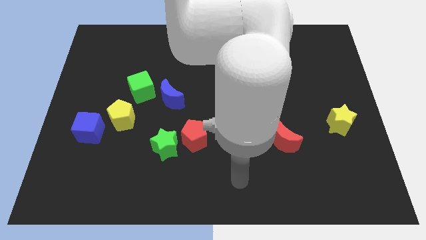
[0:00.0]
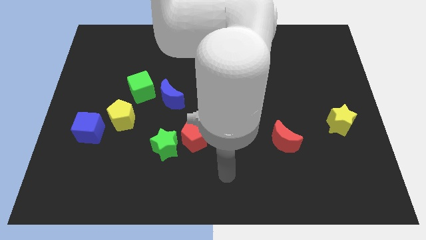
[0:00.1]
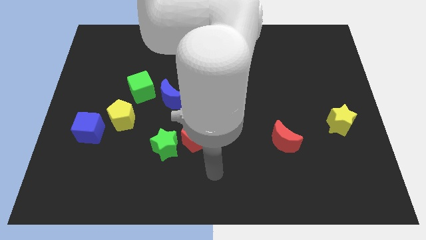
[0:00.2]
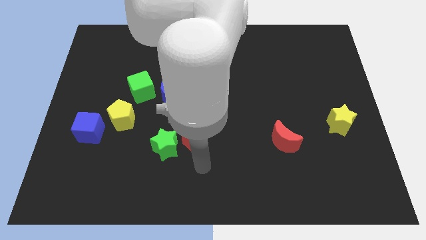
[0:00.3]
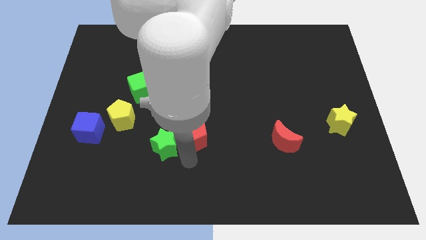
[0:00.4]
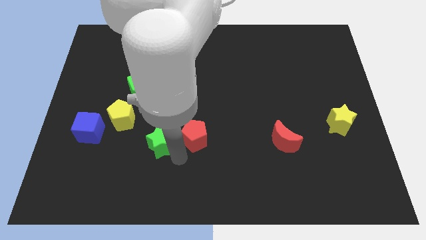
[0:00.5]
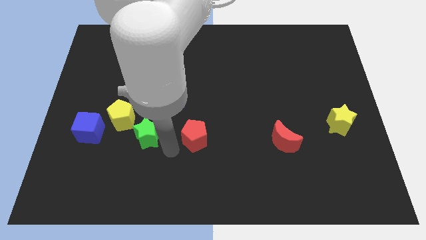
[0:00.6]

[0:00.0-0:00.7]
separate the red pentagon from the green star

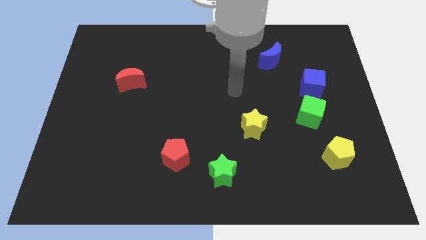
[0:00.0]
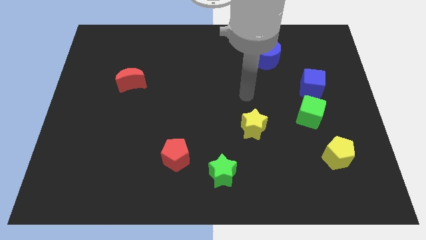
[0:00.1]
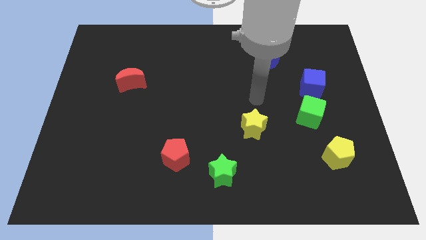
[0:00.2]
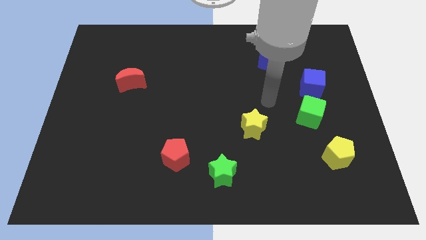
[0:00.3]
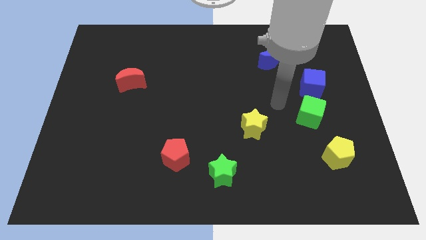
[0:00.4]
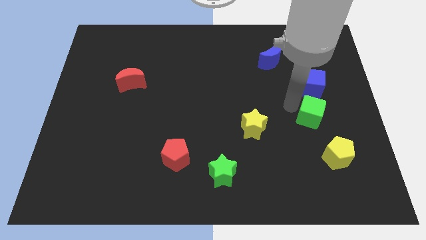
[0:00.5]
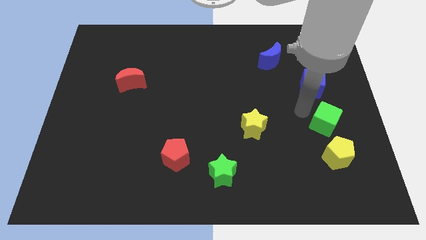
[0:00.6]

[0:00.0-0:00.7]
pull the blue cube apart from the green cube

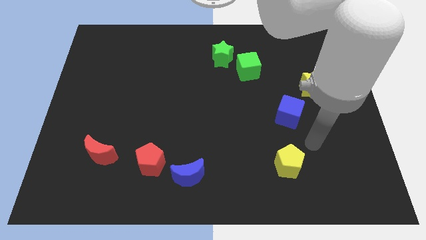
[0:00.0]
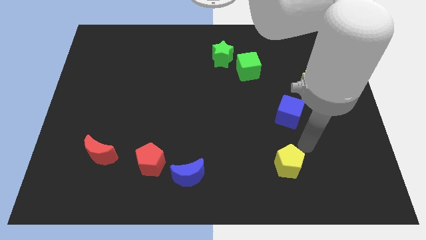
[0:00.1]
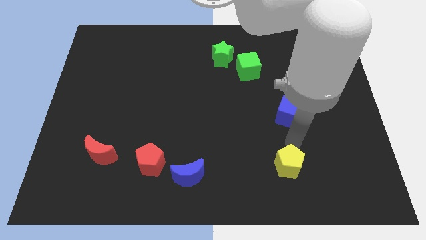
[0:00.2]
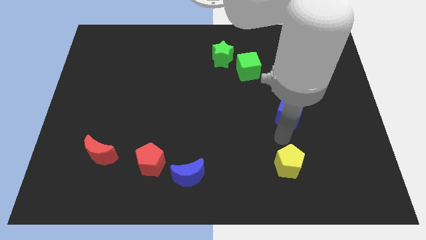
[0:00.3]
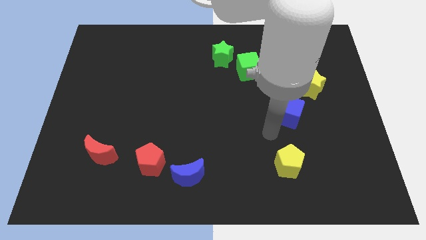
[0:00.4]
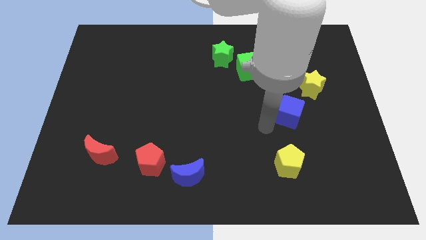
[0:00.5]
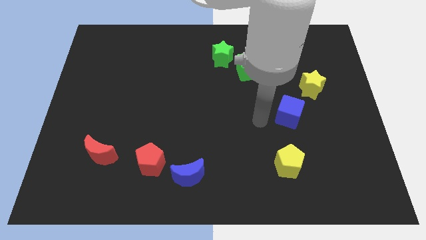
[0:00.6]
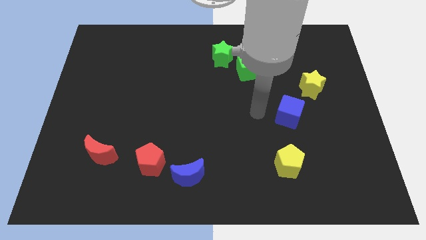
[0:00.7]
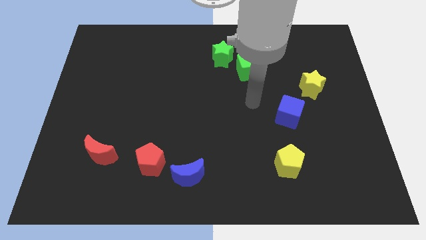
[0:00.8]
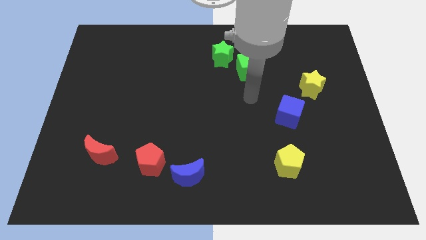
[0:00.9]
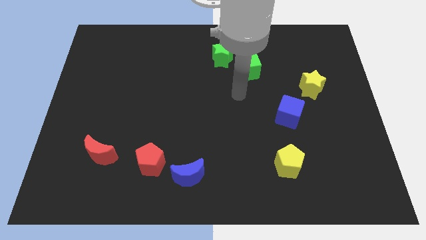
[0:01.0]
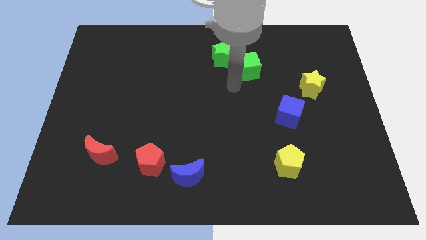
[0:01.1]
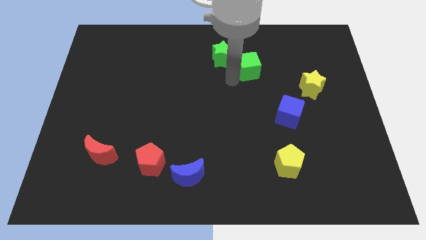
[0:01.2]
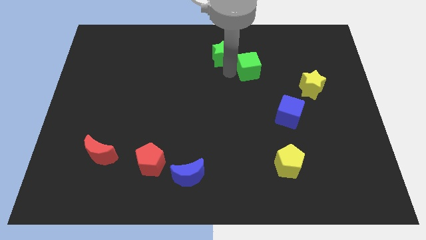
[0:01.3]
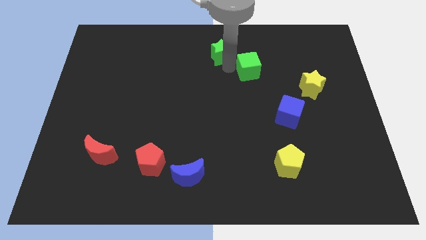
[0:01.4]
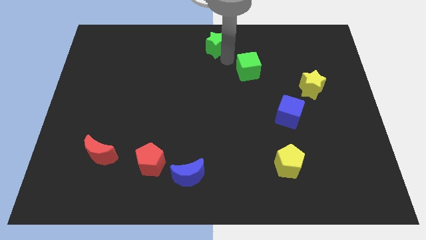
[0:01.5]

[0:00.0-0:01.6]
pull the green cube apart from the green star

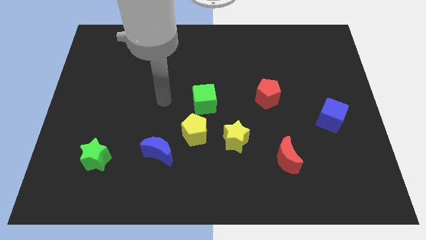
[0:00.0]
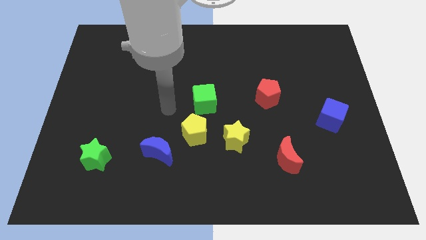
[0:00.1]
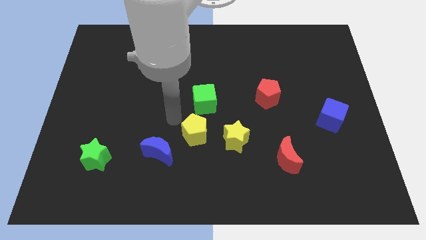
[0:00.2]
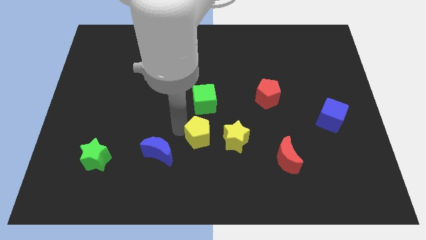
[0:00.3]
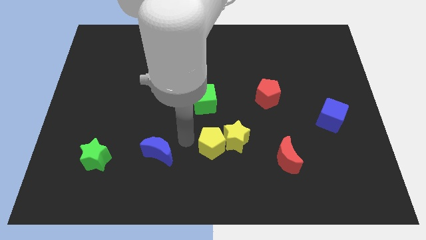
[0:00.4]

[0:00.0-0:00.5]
pull the blue moon apart from the yellow pentagon

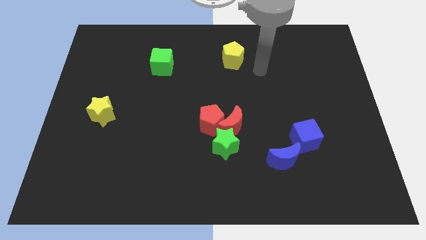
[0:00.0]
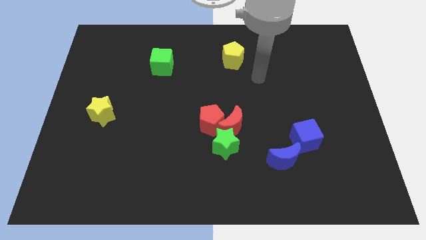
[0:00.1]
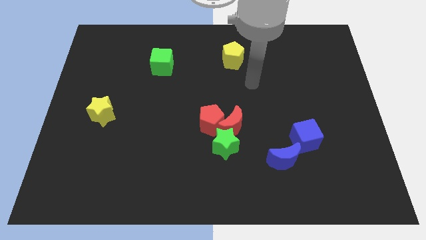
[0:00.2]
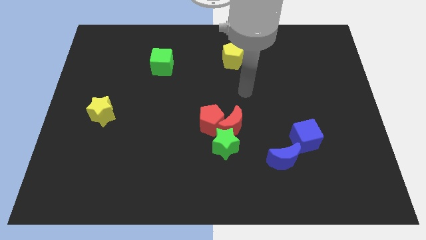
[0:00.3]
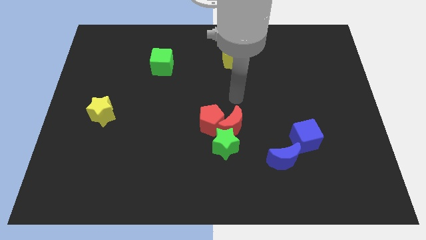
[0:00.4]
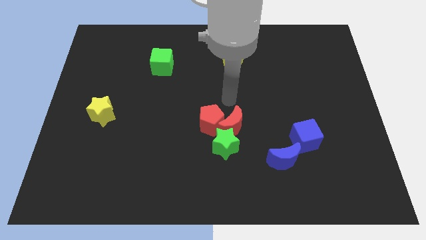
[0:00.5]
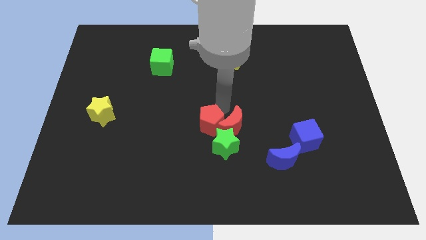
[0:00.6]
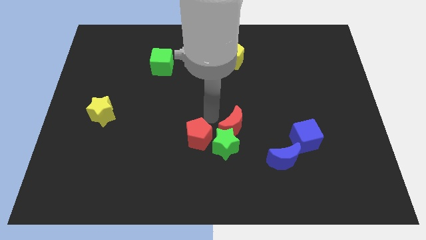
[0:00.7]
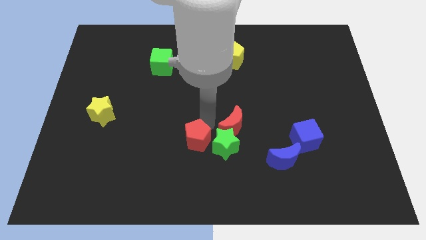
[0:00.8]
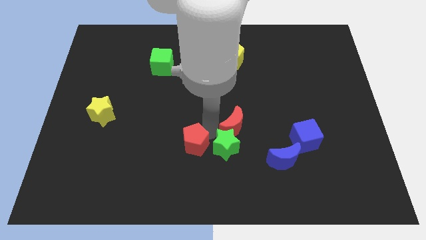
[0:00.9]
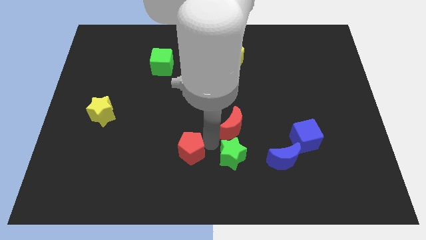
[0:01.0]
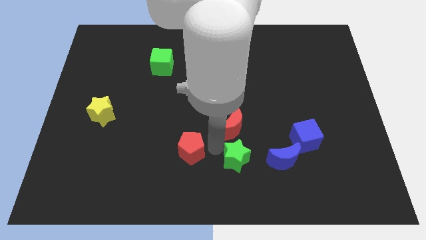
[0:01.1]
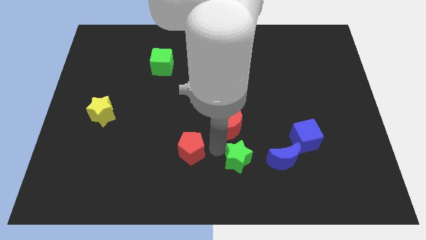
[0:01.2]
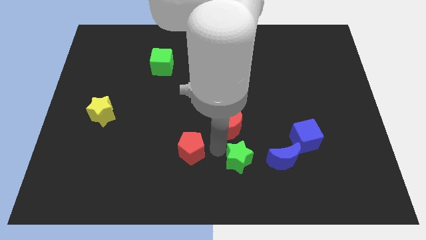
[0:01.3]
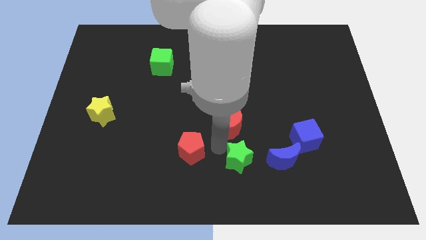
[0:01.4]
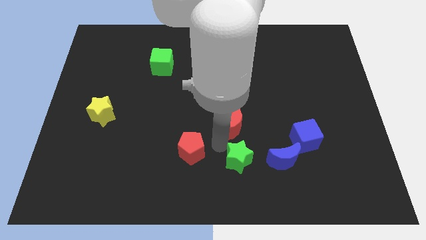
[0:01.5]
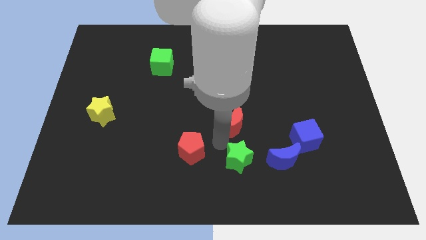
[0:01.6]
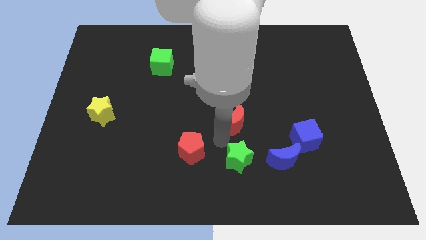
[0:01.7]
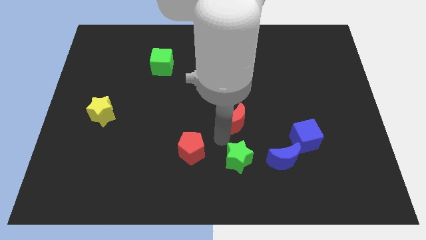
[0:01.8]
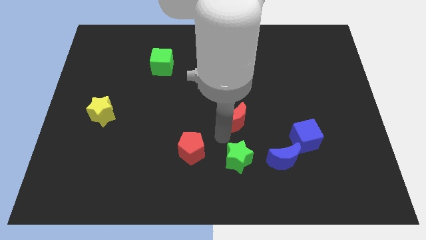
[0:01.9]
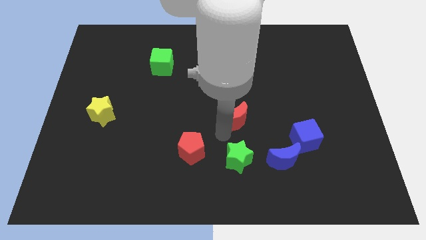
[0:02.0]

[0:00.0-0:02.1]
separate the red moon from the red pentagon and green star

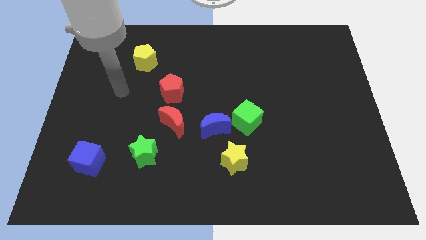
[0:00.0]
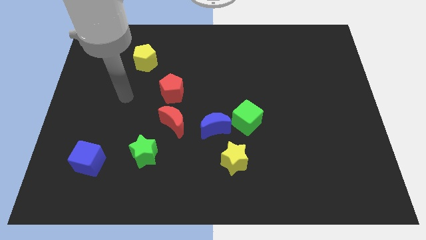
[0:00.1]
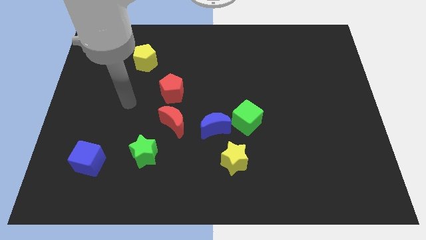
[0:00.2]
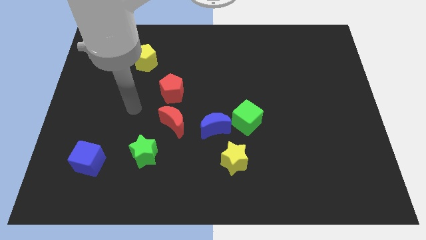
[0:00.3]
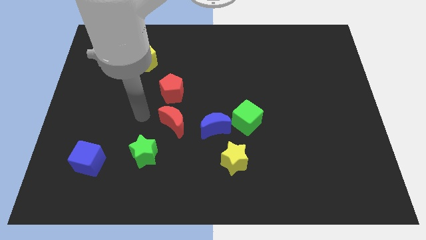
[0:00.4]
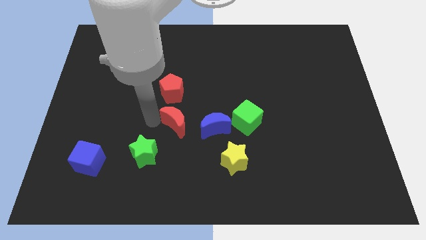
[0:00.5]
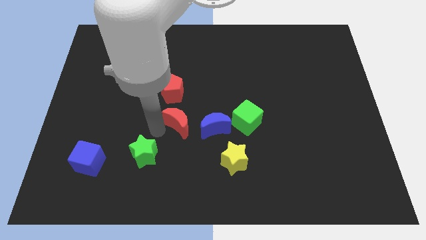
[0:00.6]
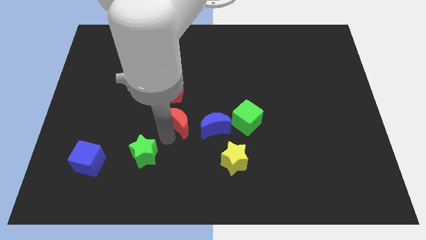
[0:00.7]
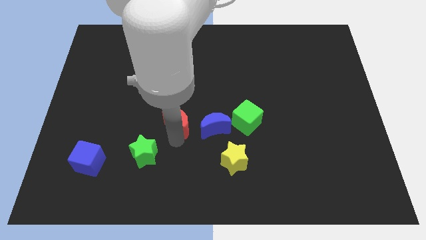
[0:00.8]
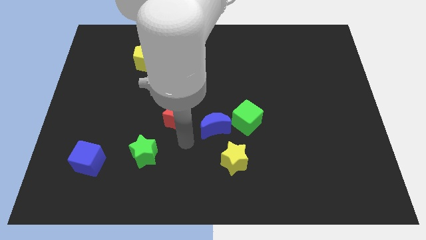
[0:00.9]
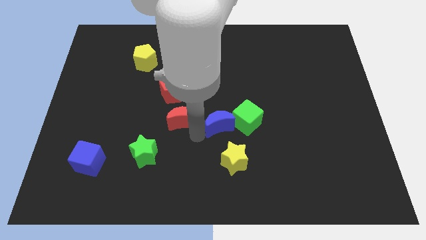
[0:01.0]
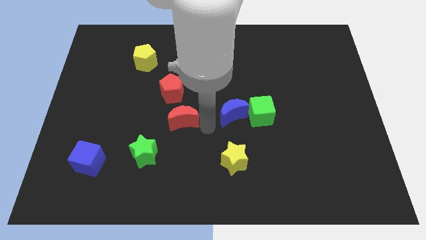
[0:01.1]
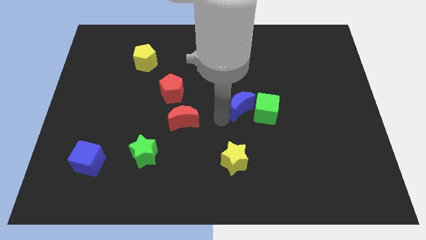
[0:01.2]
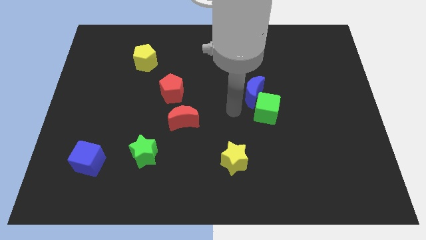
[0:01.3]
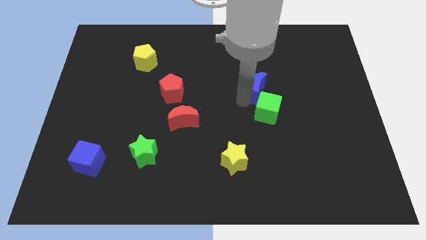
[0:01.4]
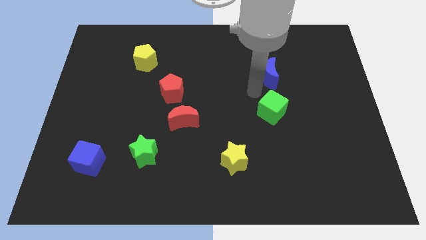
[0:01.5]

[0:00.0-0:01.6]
separate the green cube from the blue moon

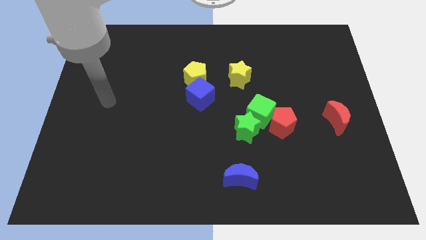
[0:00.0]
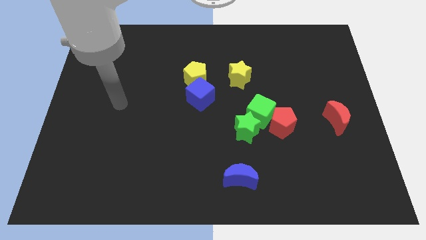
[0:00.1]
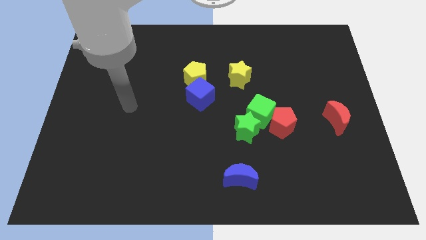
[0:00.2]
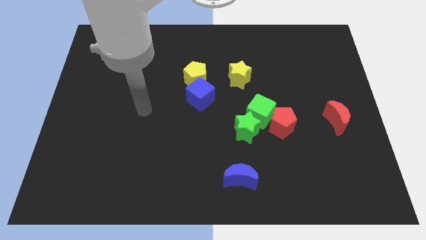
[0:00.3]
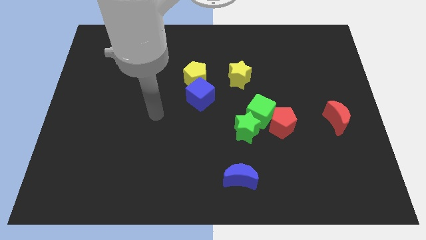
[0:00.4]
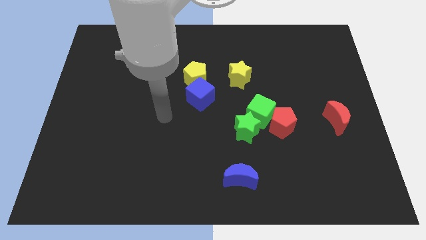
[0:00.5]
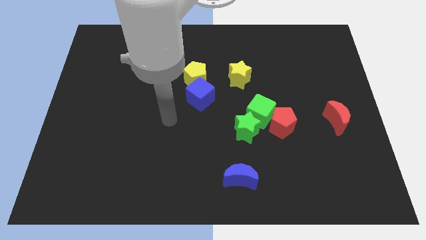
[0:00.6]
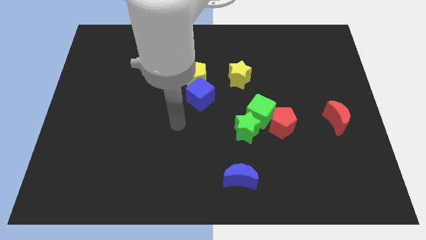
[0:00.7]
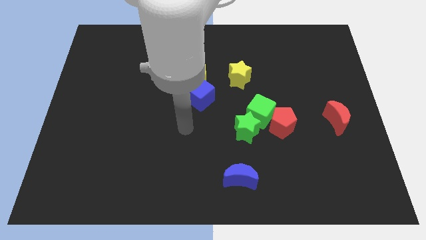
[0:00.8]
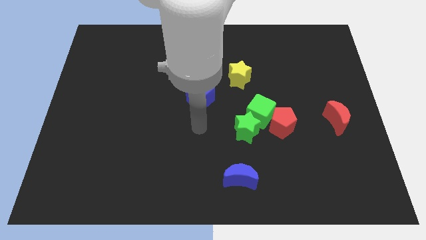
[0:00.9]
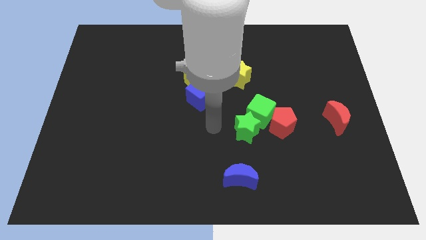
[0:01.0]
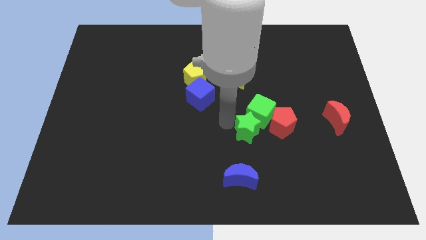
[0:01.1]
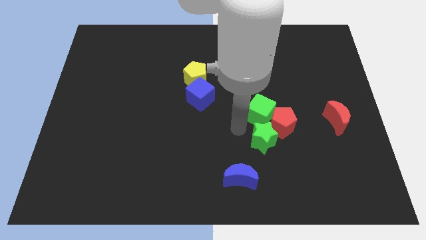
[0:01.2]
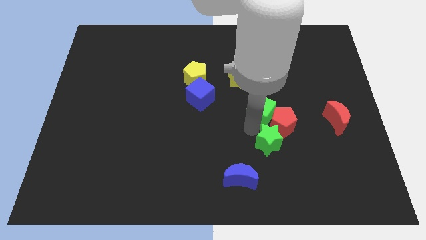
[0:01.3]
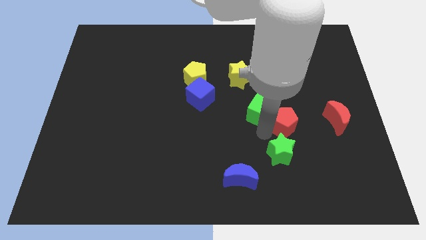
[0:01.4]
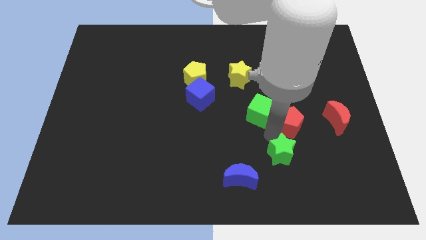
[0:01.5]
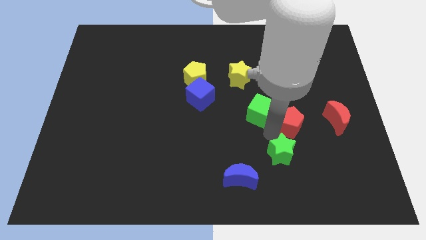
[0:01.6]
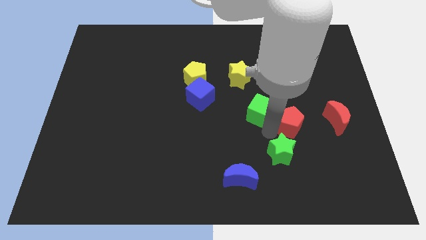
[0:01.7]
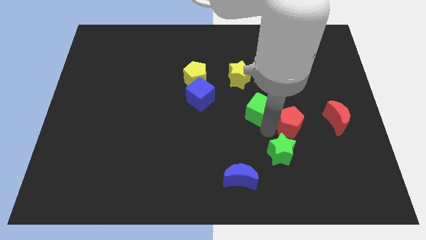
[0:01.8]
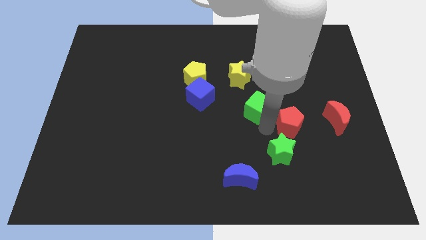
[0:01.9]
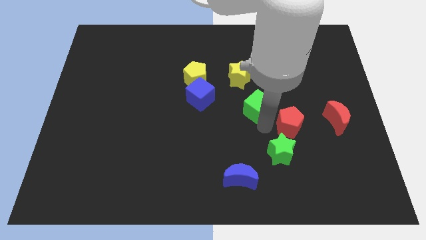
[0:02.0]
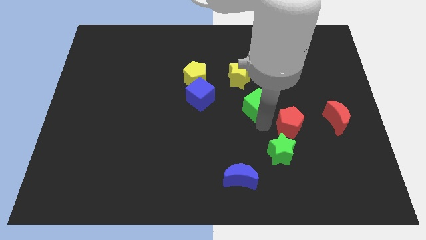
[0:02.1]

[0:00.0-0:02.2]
pull the green cube apart from the red pentagon and green star
